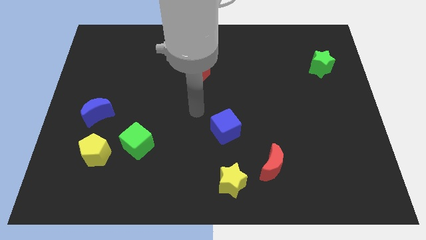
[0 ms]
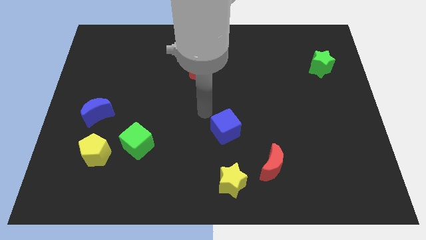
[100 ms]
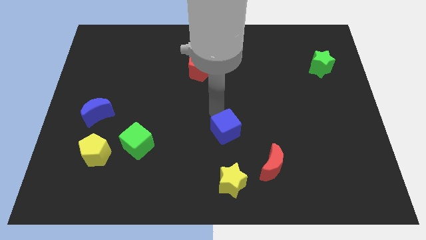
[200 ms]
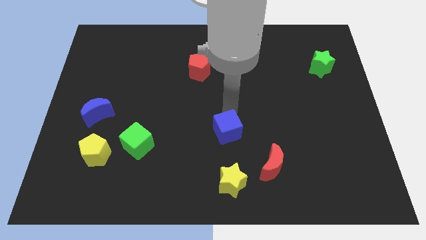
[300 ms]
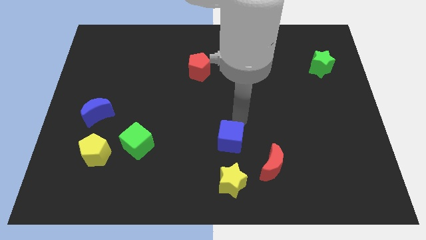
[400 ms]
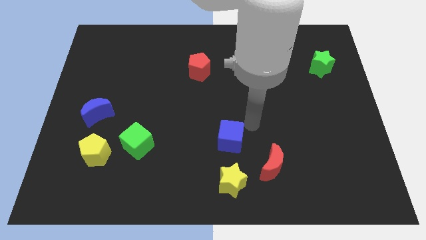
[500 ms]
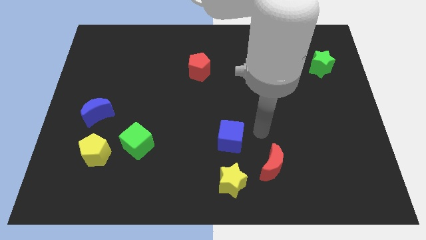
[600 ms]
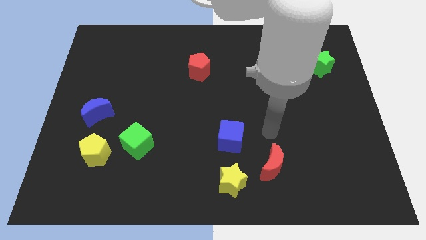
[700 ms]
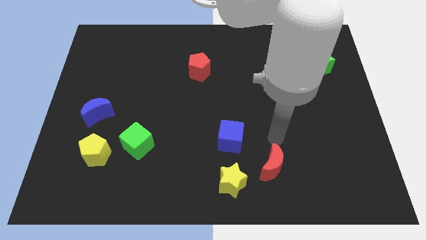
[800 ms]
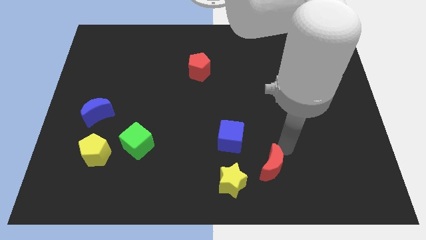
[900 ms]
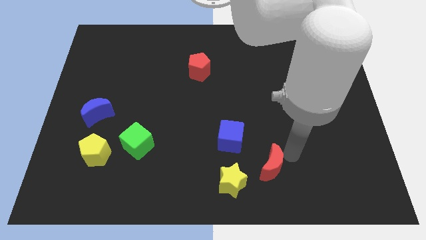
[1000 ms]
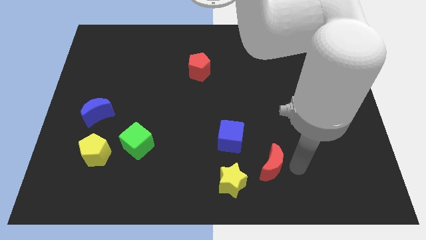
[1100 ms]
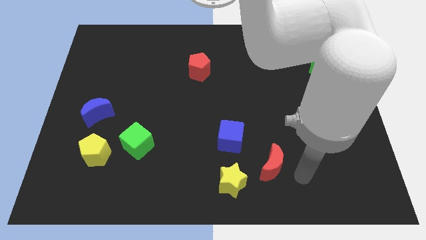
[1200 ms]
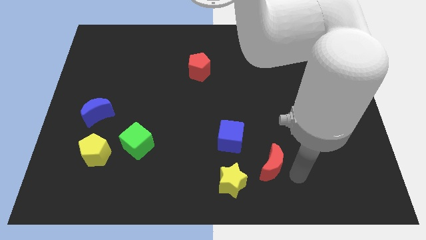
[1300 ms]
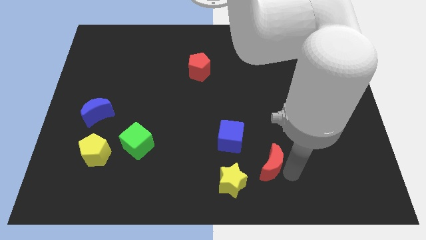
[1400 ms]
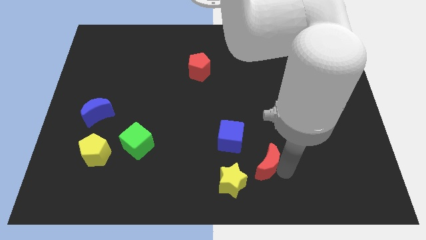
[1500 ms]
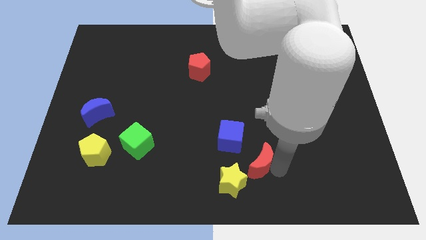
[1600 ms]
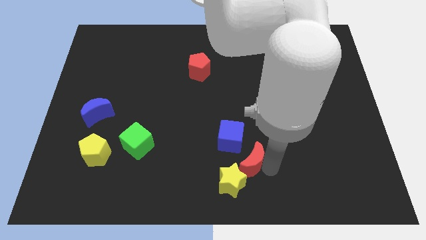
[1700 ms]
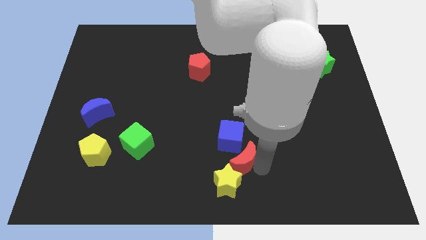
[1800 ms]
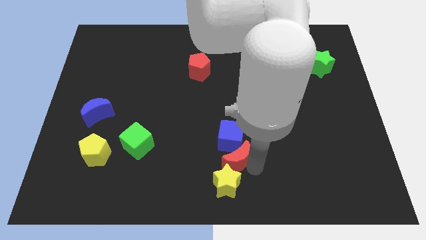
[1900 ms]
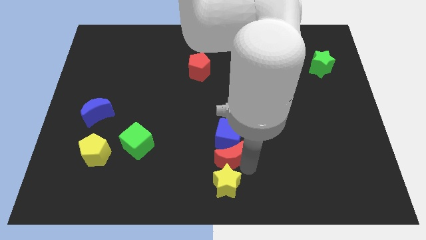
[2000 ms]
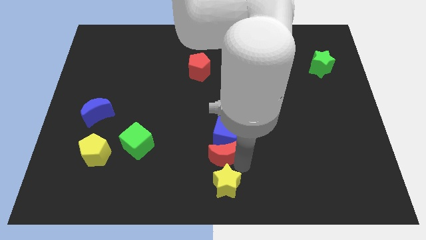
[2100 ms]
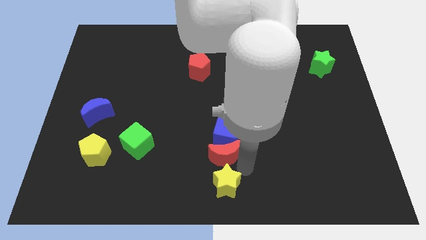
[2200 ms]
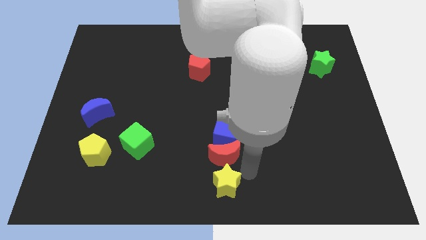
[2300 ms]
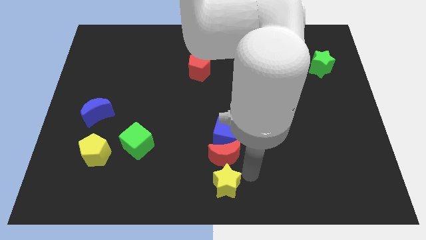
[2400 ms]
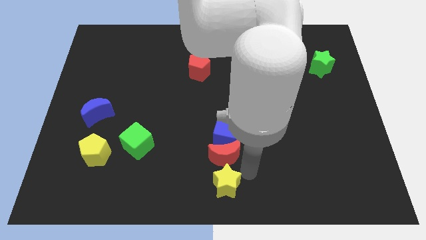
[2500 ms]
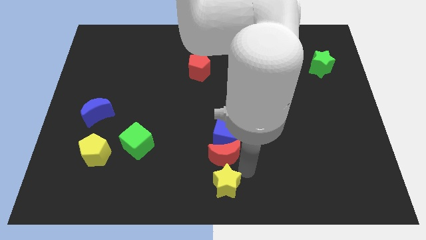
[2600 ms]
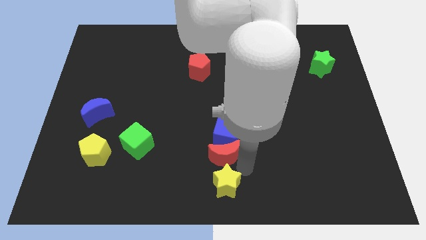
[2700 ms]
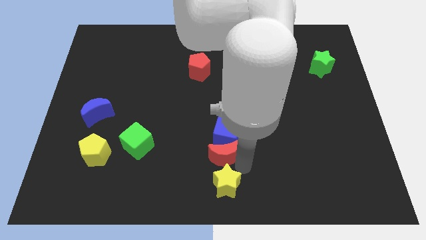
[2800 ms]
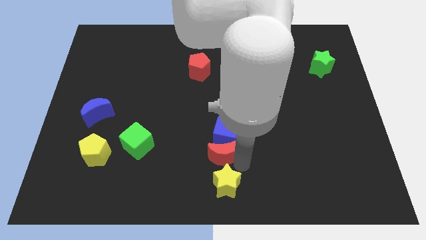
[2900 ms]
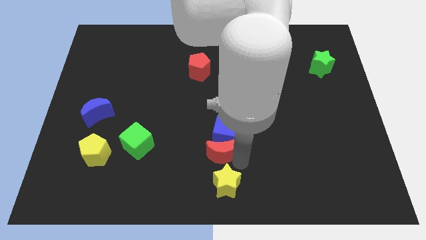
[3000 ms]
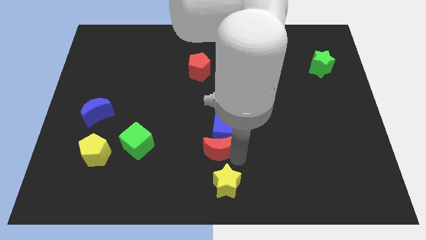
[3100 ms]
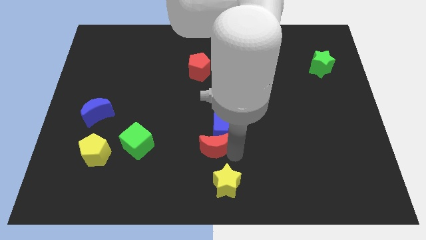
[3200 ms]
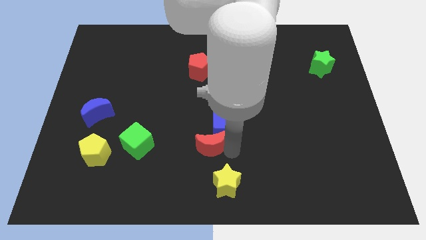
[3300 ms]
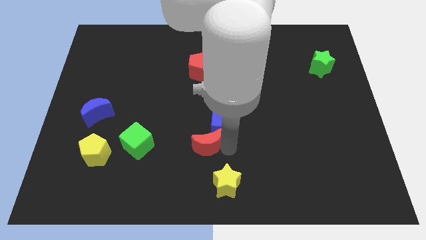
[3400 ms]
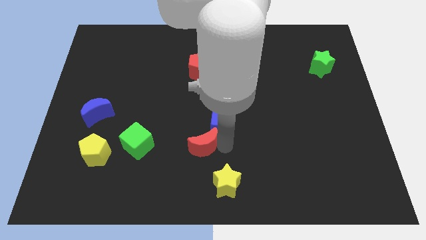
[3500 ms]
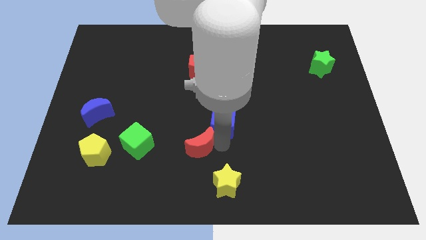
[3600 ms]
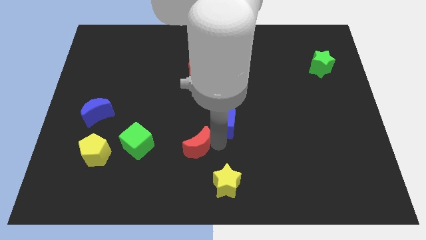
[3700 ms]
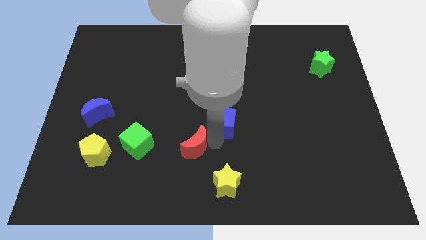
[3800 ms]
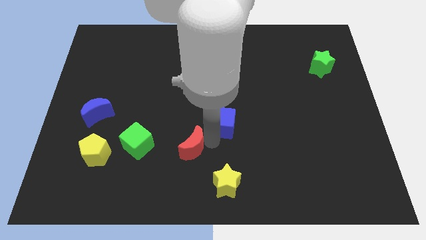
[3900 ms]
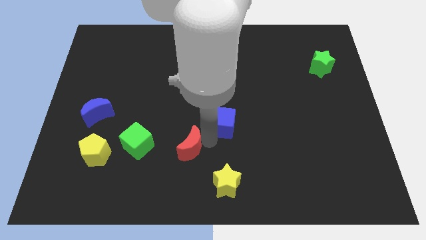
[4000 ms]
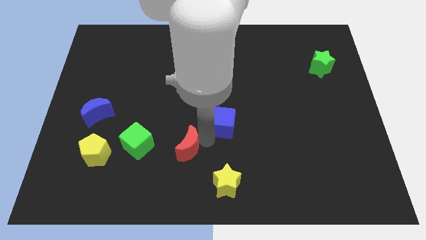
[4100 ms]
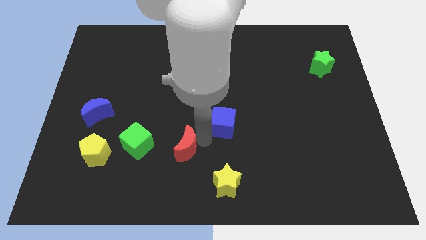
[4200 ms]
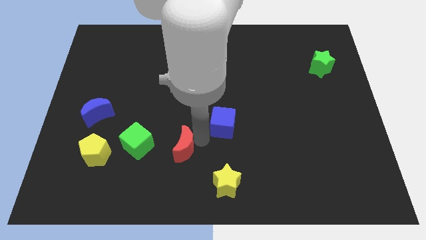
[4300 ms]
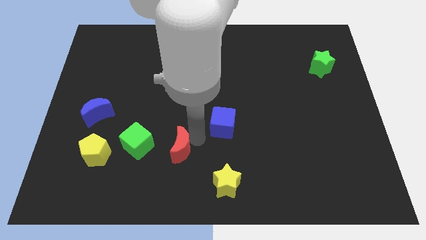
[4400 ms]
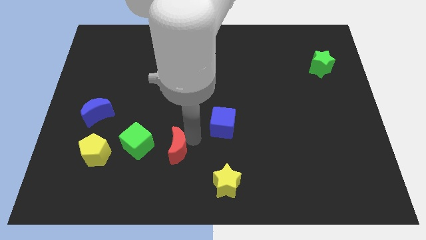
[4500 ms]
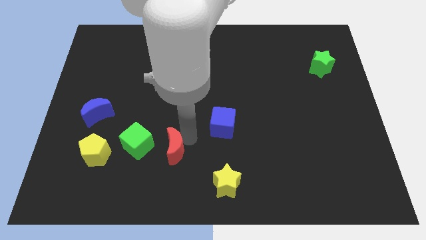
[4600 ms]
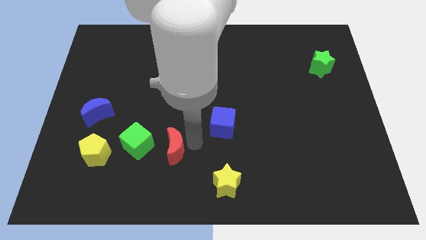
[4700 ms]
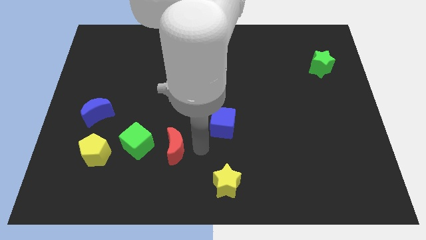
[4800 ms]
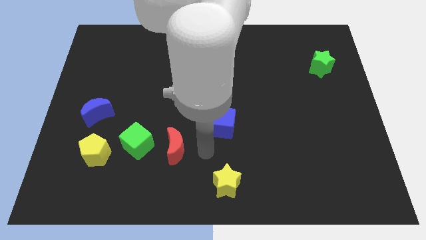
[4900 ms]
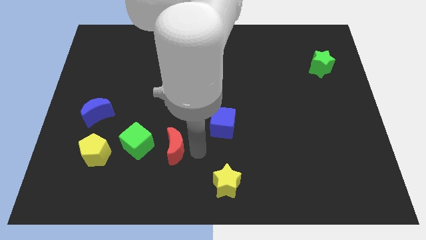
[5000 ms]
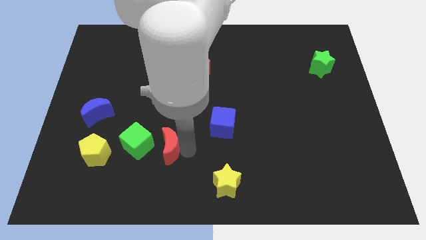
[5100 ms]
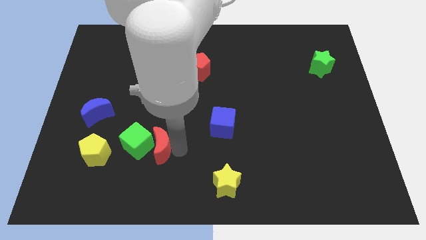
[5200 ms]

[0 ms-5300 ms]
slide the red moon to the green cube

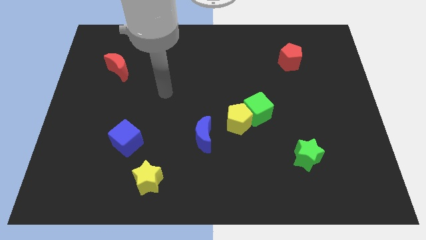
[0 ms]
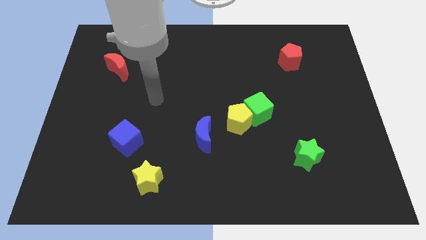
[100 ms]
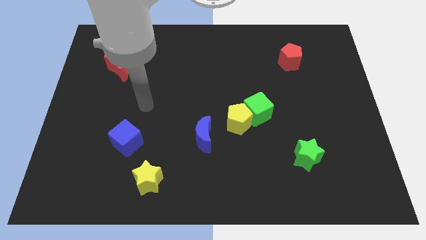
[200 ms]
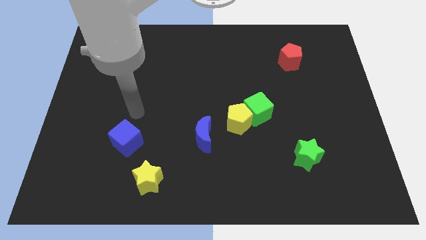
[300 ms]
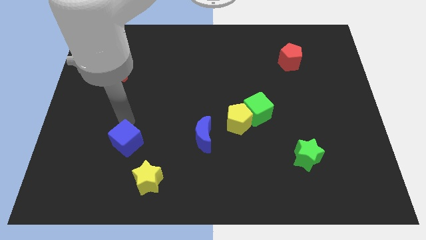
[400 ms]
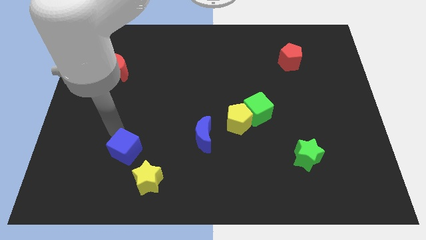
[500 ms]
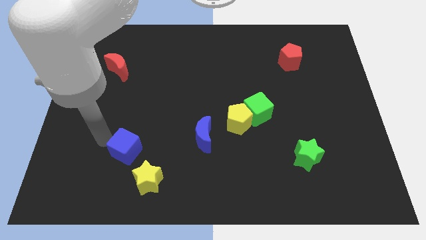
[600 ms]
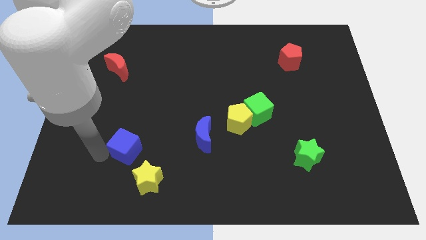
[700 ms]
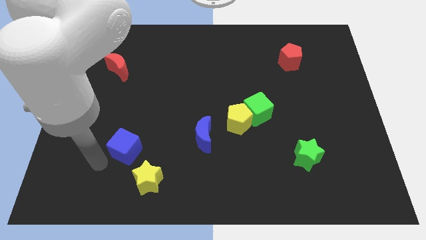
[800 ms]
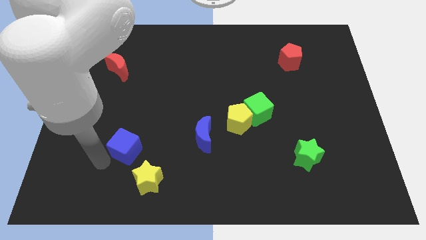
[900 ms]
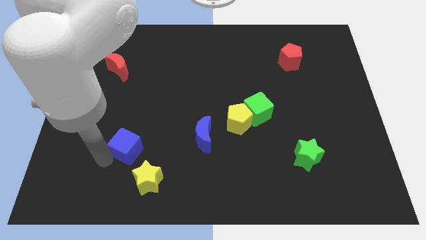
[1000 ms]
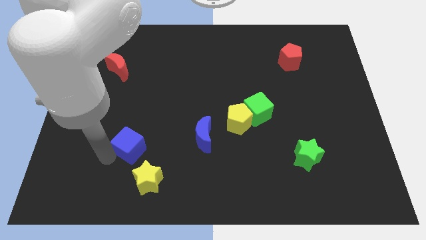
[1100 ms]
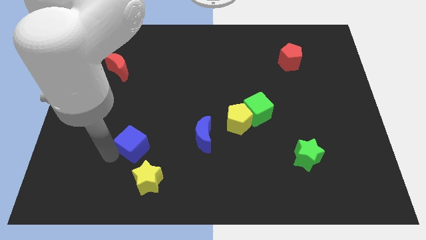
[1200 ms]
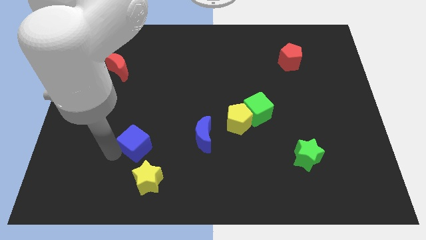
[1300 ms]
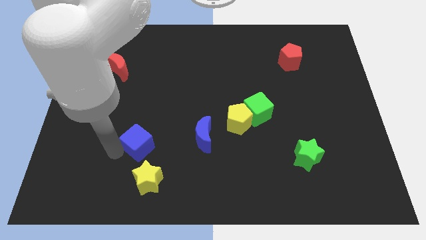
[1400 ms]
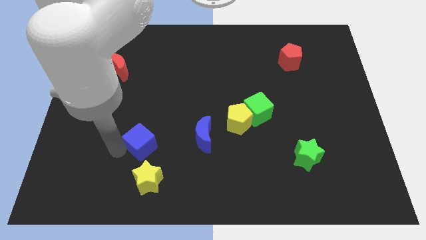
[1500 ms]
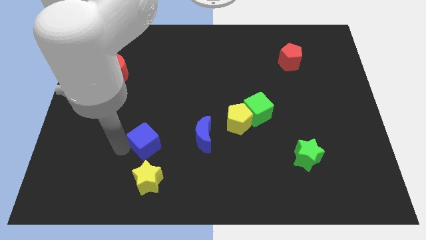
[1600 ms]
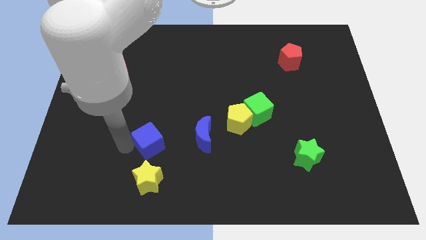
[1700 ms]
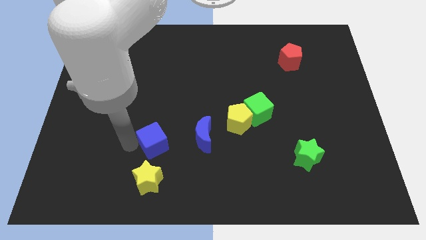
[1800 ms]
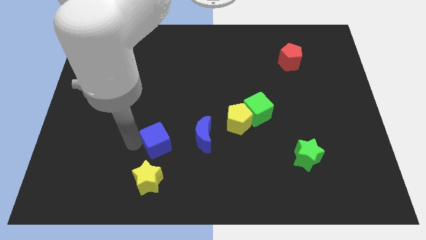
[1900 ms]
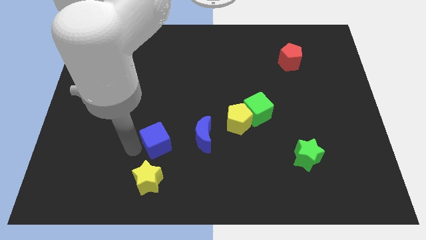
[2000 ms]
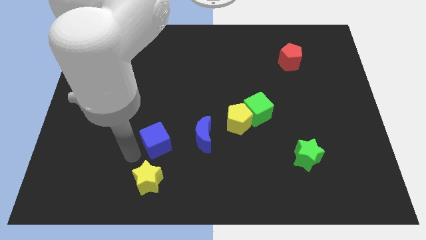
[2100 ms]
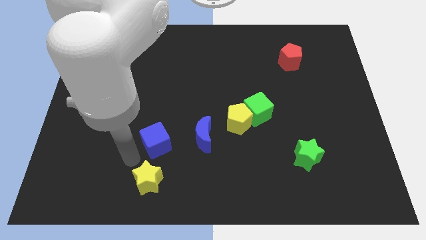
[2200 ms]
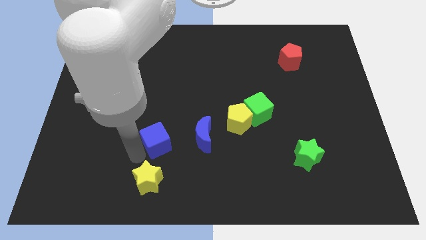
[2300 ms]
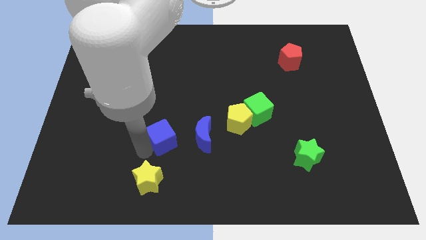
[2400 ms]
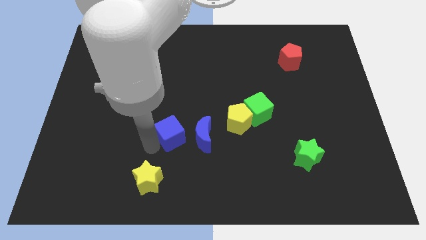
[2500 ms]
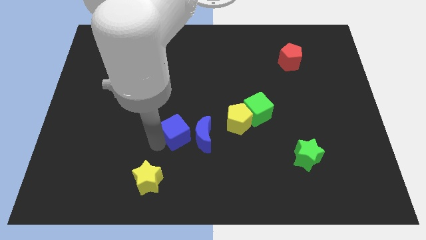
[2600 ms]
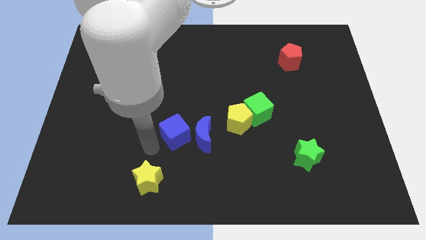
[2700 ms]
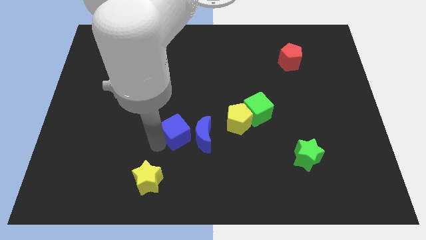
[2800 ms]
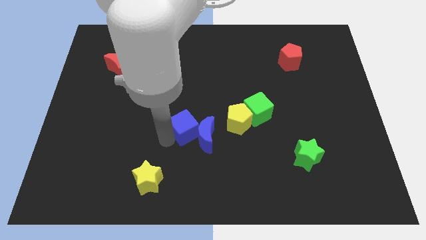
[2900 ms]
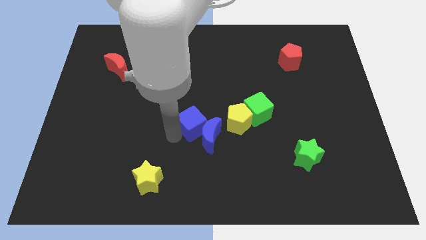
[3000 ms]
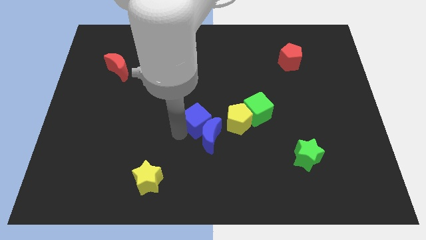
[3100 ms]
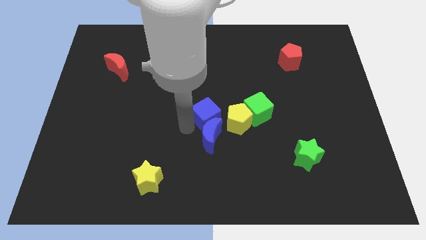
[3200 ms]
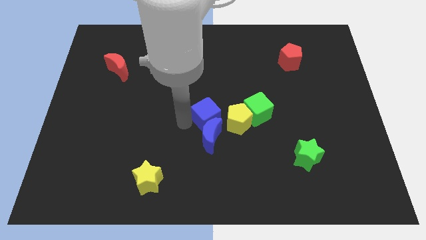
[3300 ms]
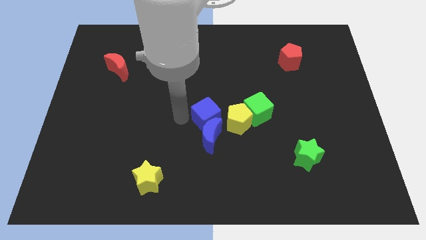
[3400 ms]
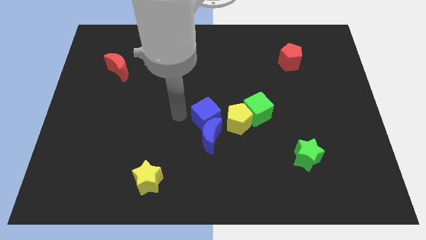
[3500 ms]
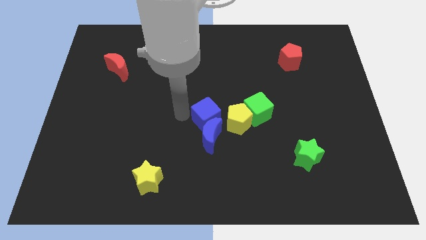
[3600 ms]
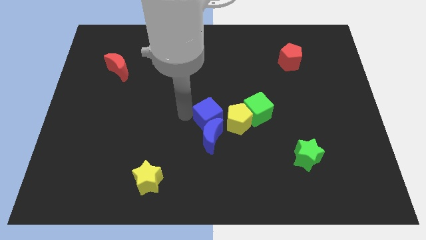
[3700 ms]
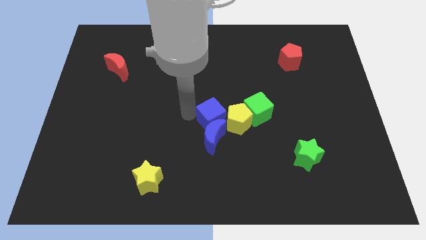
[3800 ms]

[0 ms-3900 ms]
push the blue cube close to the yellow pentagon
